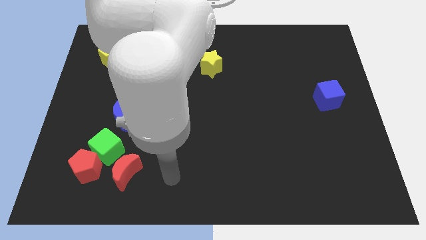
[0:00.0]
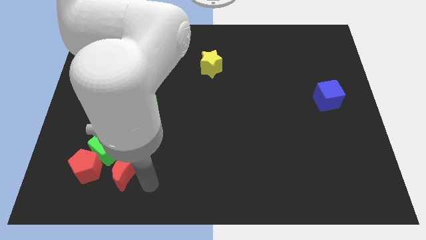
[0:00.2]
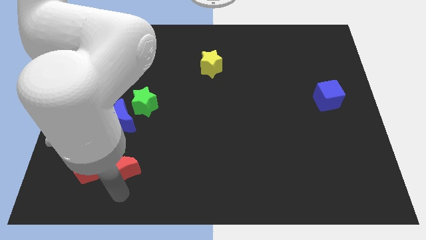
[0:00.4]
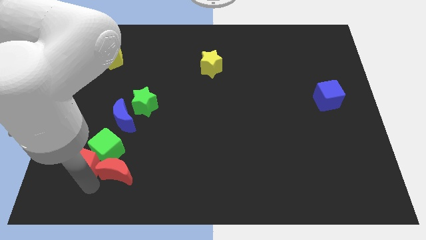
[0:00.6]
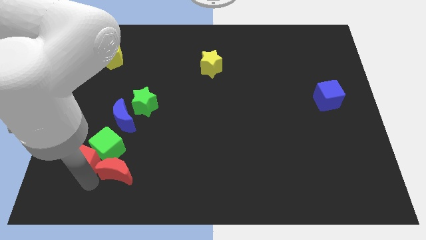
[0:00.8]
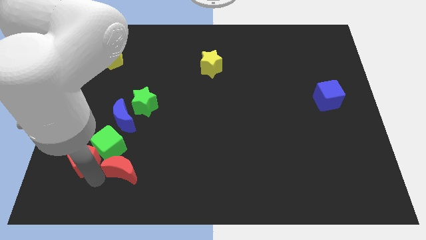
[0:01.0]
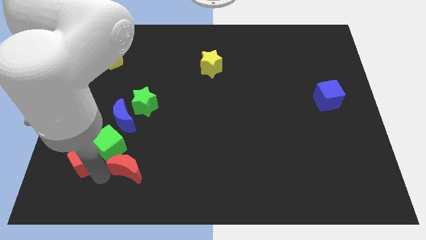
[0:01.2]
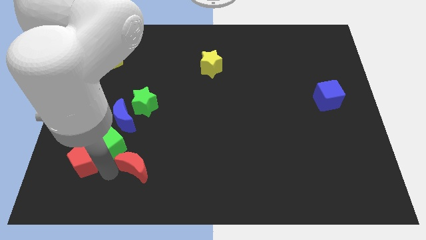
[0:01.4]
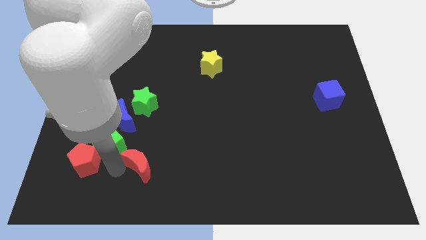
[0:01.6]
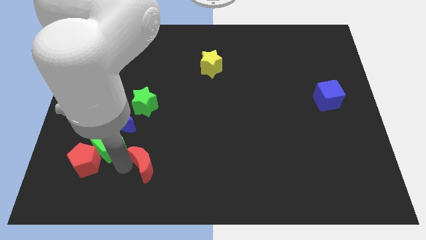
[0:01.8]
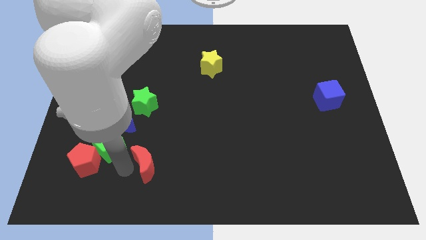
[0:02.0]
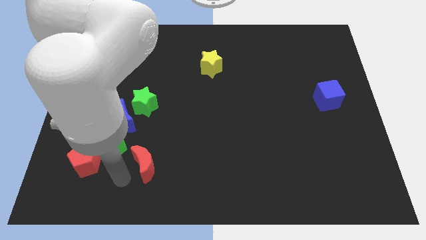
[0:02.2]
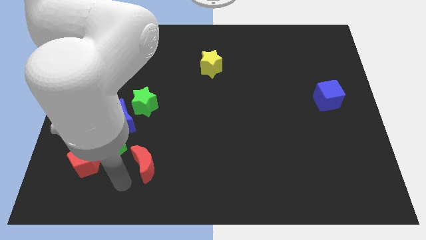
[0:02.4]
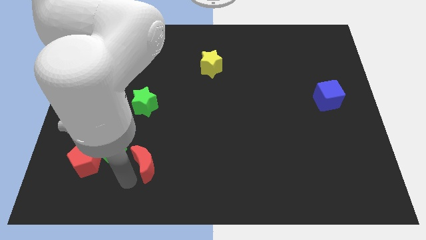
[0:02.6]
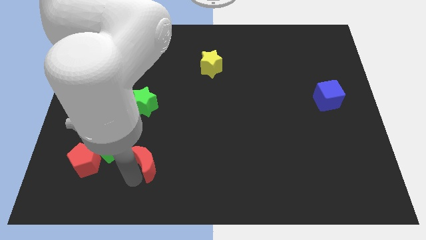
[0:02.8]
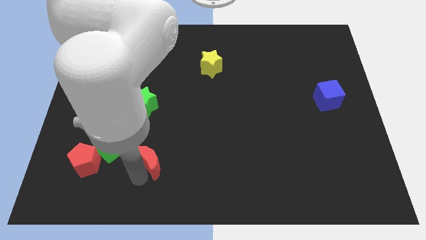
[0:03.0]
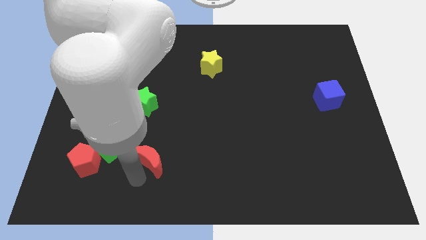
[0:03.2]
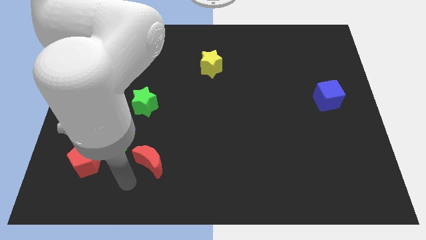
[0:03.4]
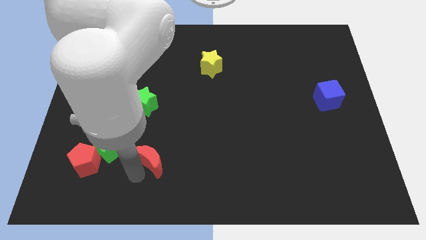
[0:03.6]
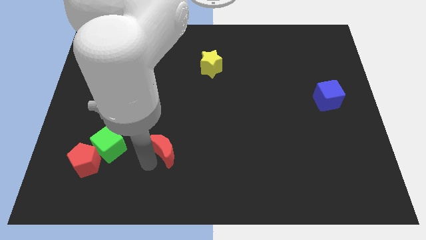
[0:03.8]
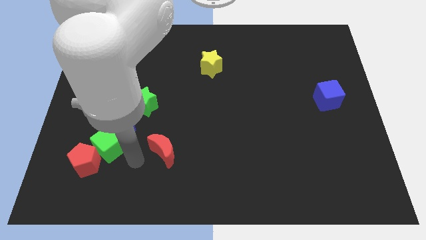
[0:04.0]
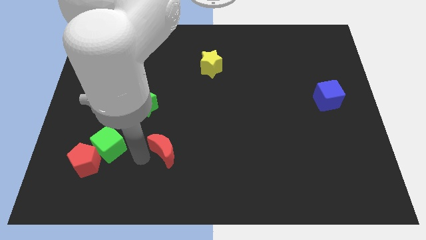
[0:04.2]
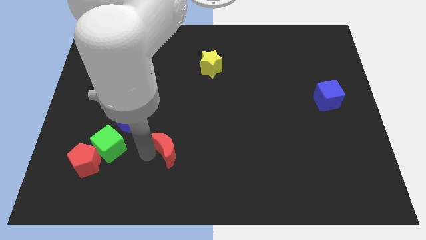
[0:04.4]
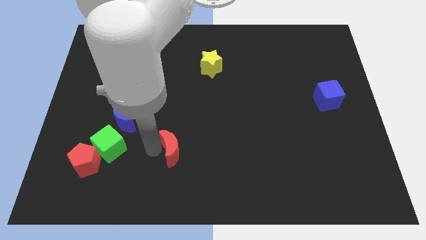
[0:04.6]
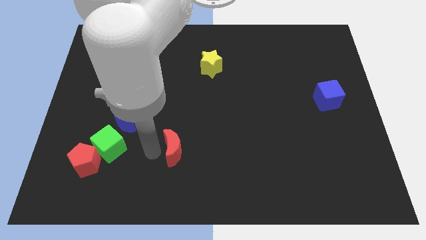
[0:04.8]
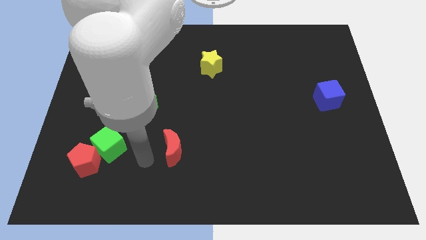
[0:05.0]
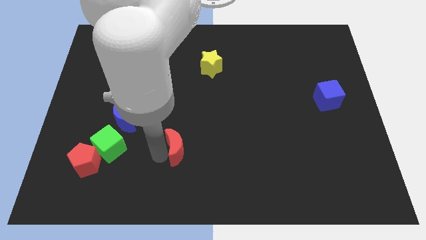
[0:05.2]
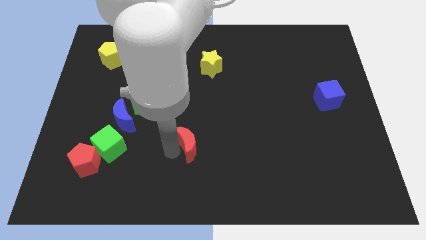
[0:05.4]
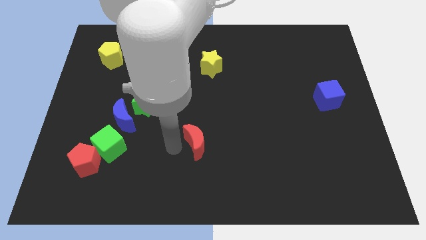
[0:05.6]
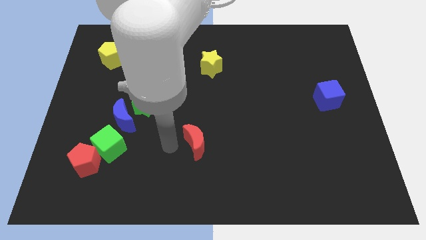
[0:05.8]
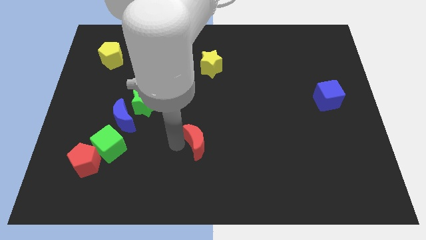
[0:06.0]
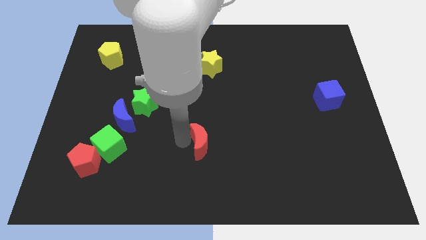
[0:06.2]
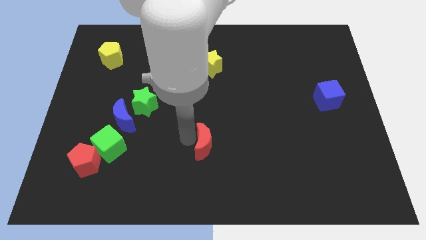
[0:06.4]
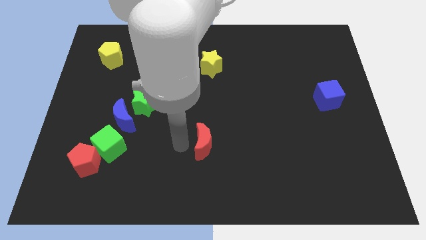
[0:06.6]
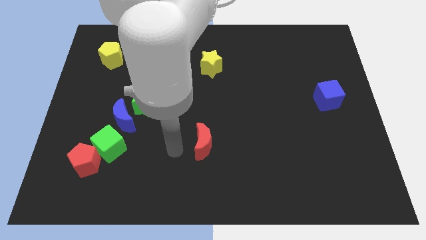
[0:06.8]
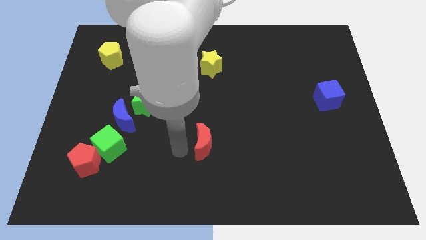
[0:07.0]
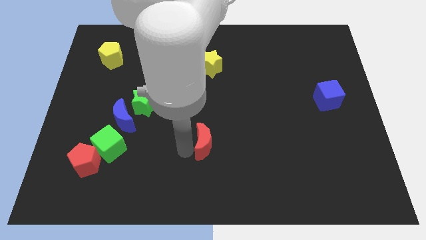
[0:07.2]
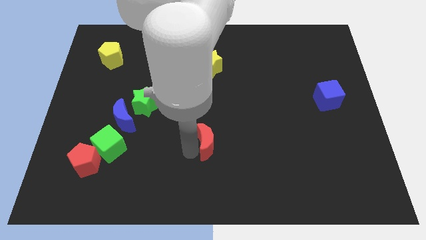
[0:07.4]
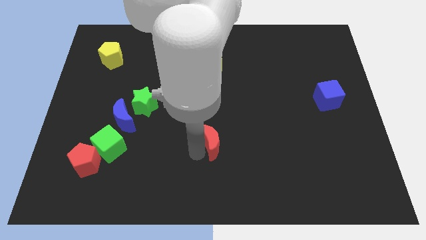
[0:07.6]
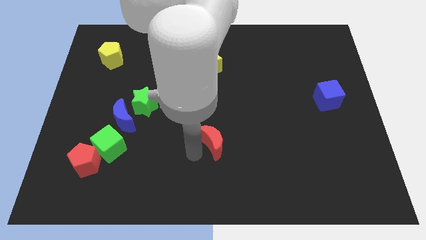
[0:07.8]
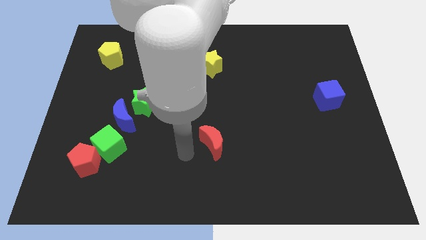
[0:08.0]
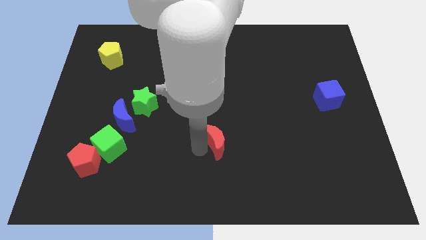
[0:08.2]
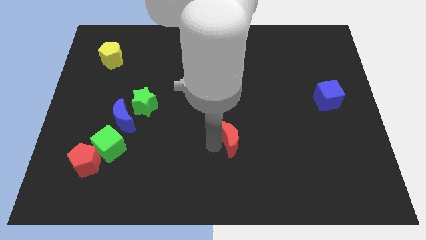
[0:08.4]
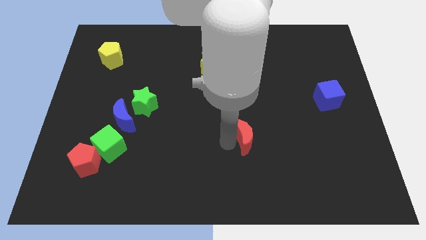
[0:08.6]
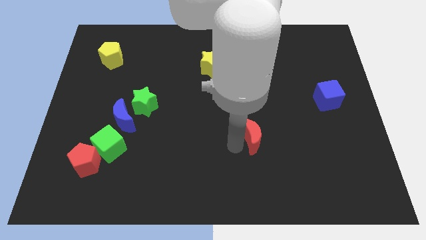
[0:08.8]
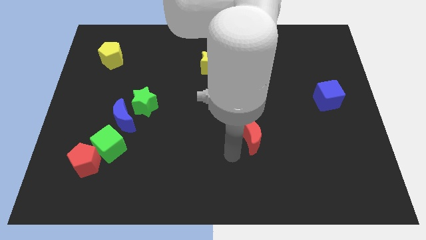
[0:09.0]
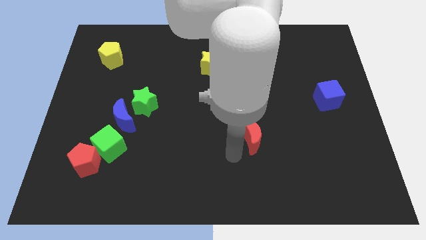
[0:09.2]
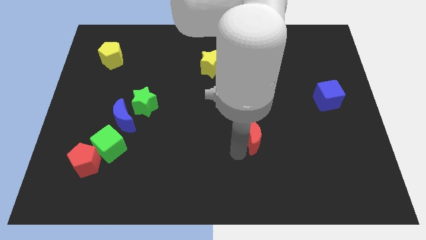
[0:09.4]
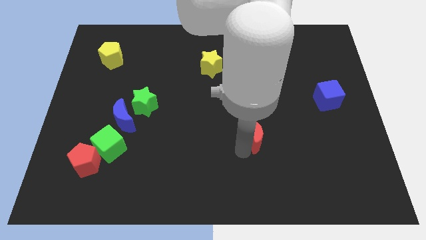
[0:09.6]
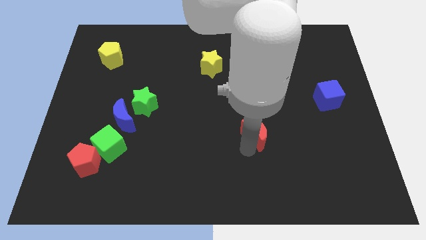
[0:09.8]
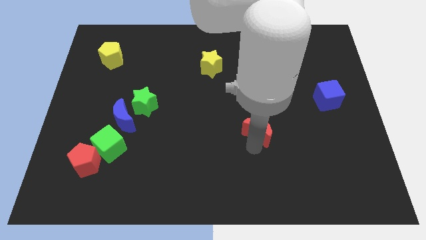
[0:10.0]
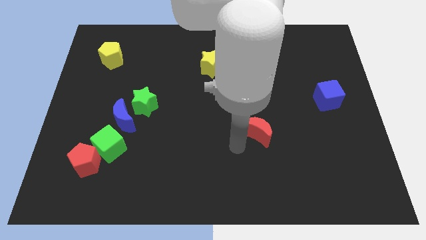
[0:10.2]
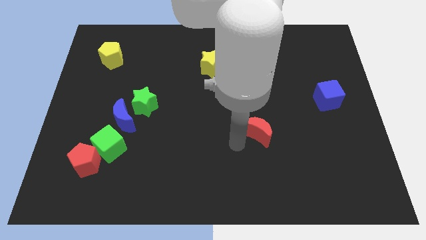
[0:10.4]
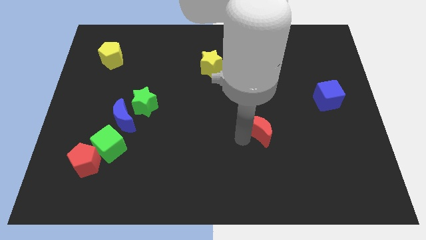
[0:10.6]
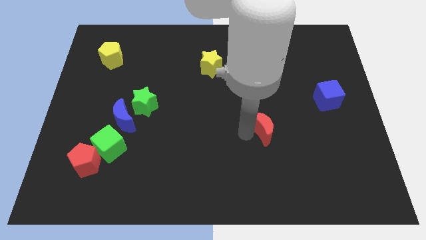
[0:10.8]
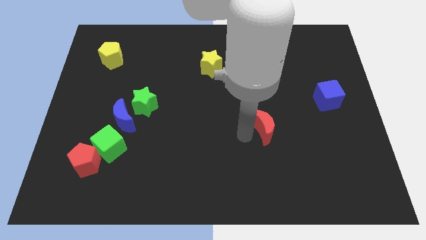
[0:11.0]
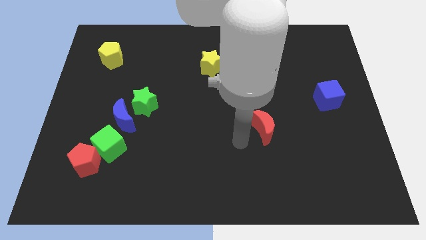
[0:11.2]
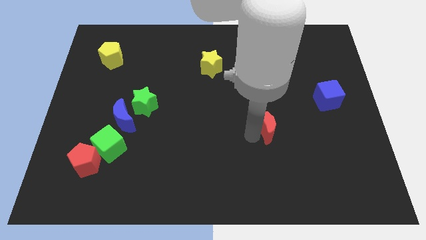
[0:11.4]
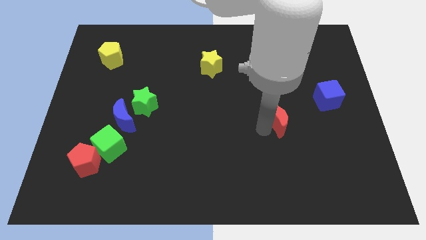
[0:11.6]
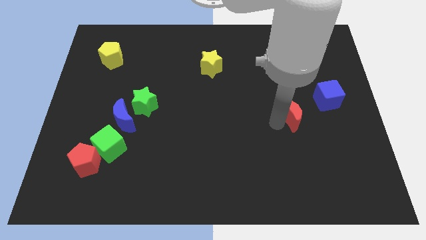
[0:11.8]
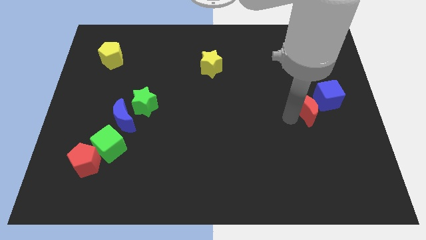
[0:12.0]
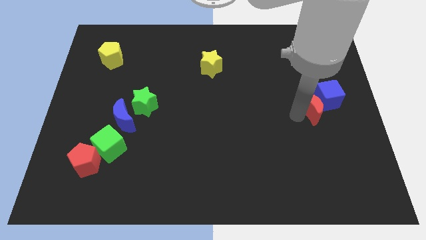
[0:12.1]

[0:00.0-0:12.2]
move the red moon towards the blue cube

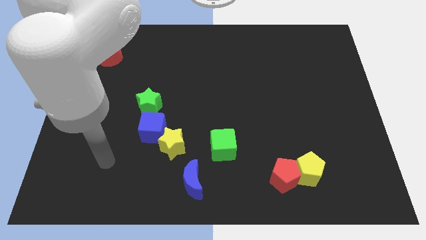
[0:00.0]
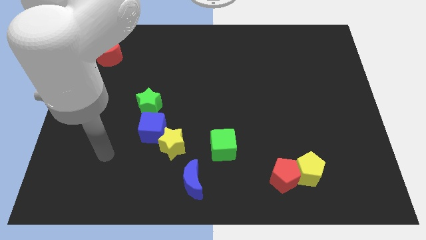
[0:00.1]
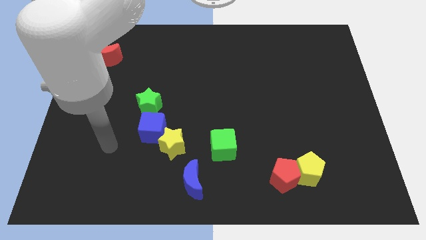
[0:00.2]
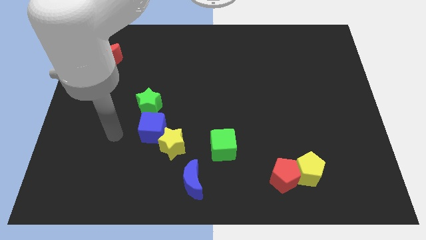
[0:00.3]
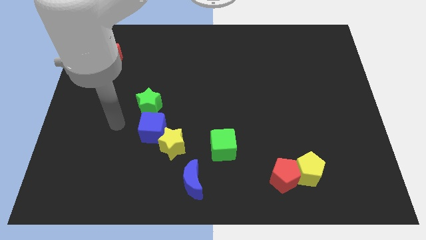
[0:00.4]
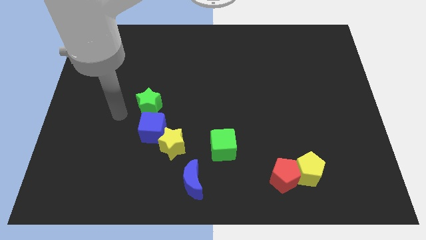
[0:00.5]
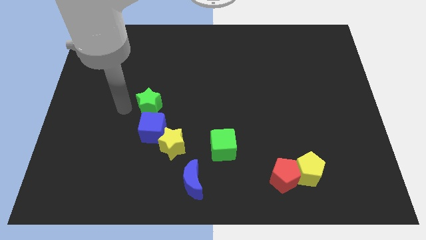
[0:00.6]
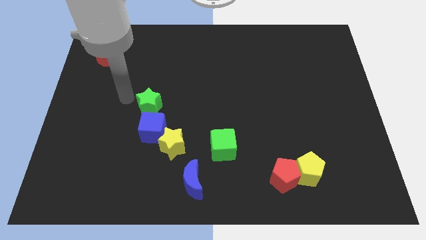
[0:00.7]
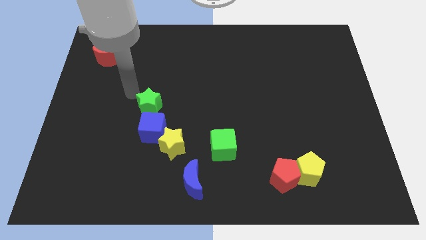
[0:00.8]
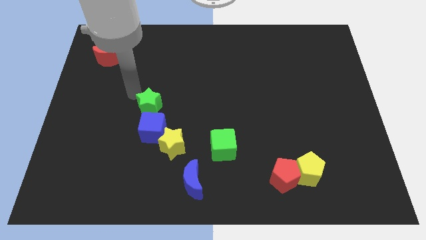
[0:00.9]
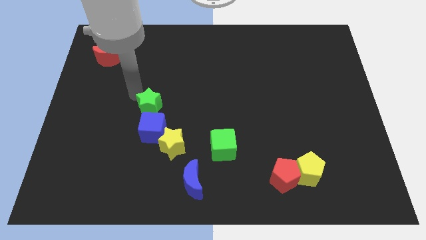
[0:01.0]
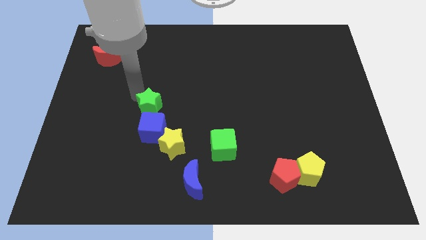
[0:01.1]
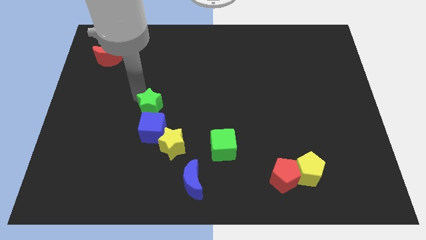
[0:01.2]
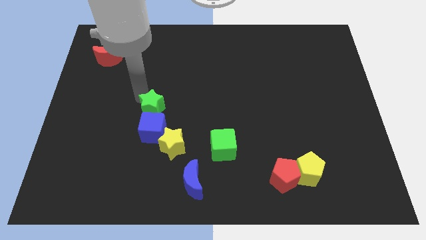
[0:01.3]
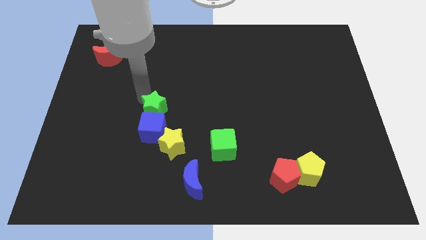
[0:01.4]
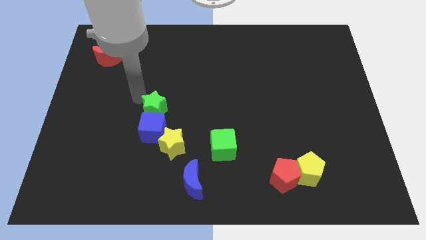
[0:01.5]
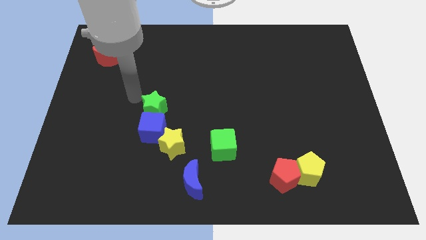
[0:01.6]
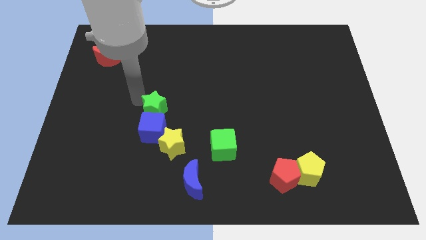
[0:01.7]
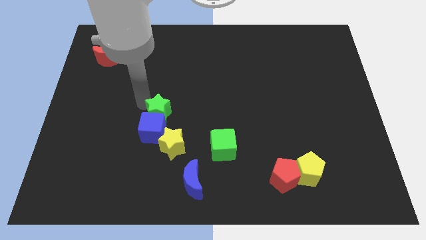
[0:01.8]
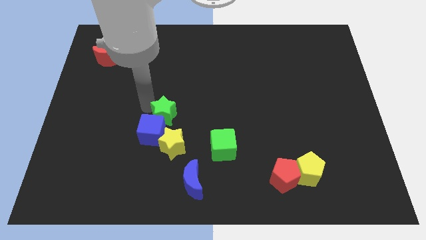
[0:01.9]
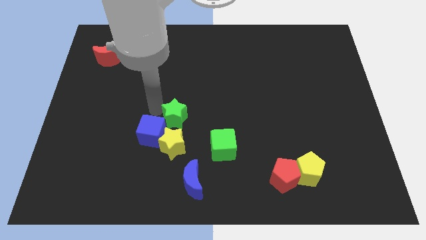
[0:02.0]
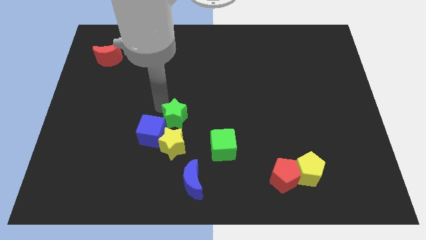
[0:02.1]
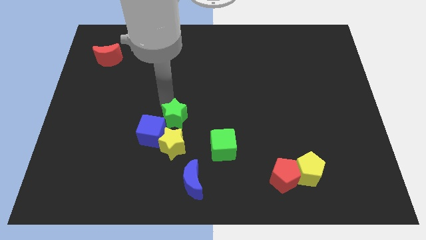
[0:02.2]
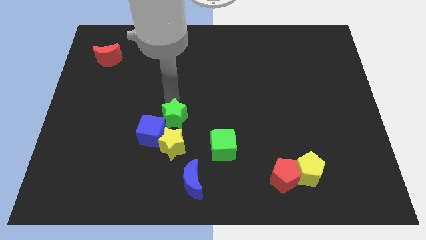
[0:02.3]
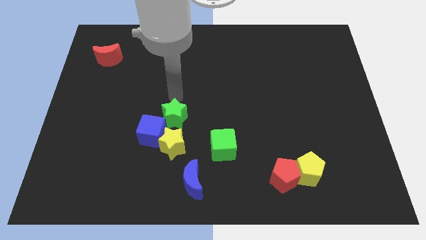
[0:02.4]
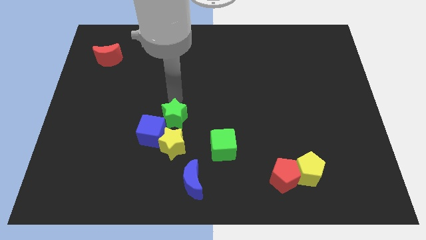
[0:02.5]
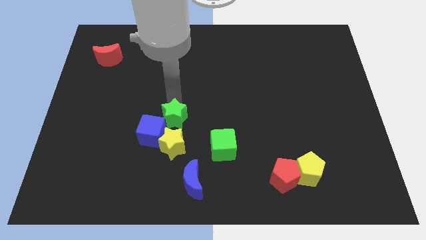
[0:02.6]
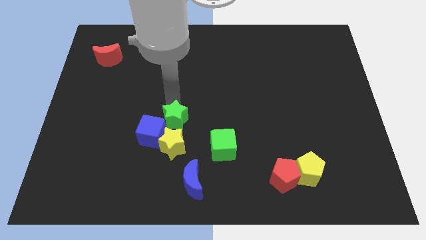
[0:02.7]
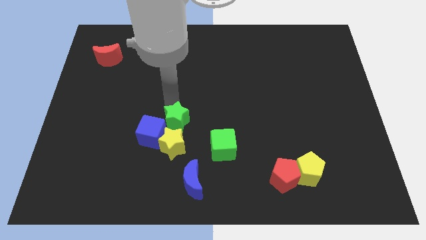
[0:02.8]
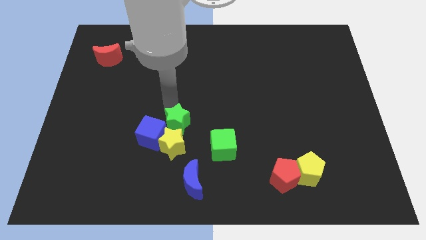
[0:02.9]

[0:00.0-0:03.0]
move the green star close to the yellow star
